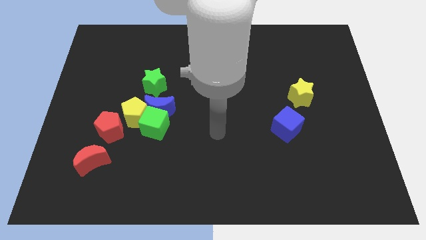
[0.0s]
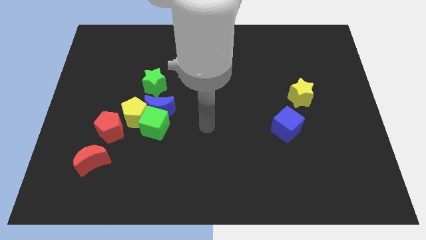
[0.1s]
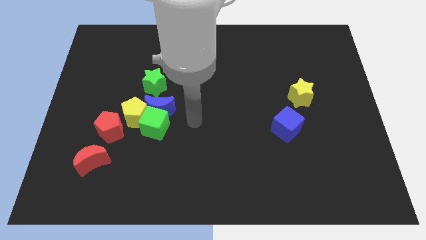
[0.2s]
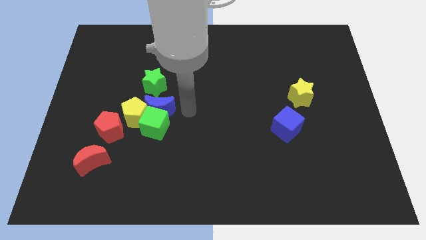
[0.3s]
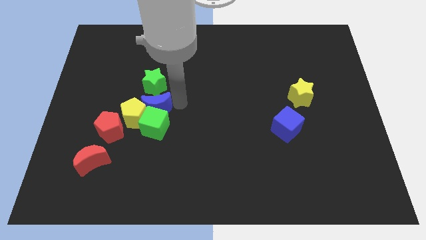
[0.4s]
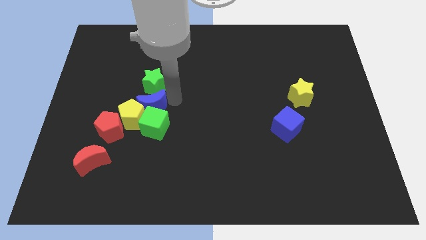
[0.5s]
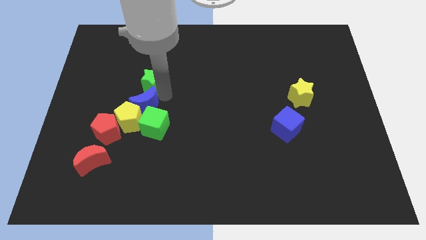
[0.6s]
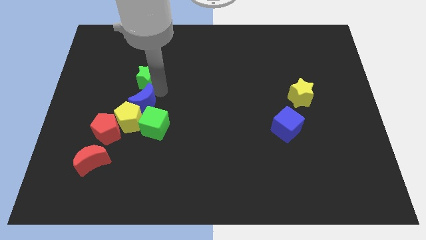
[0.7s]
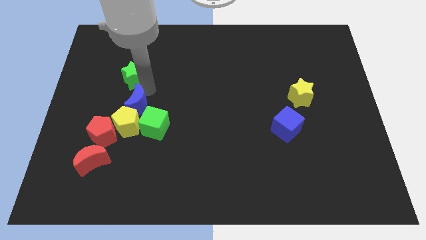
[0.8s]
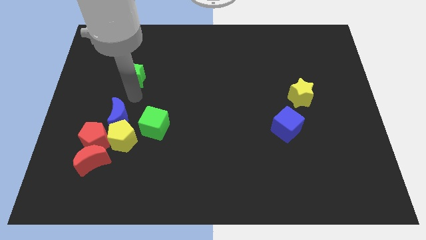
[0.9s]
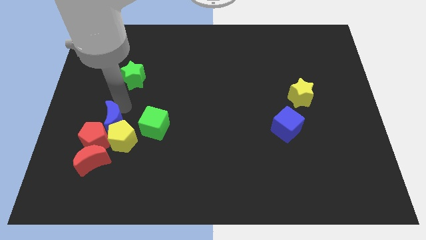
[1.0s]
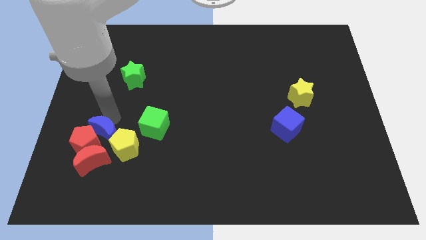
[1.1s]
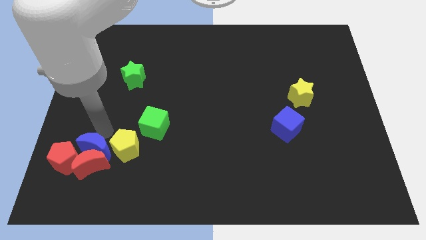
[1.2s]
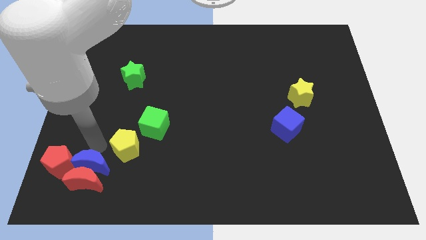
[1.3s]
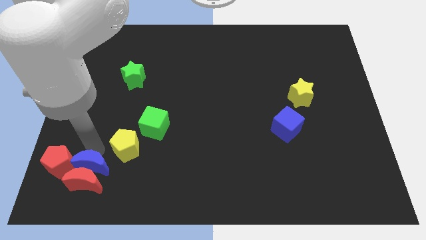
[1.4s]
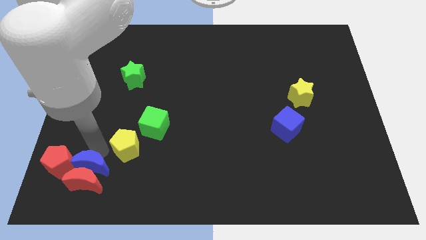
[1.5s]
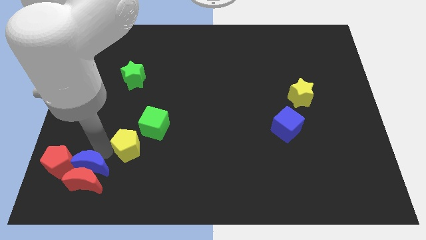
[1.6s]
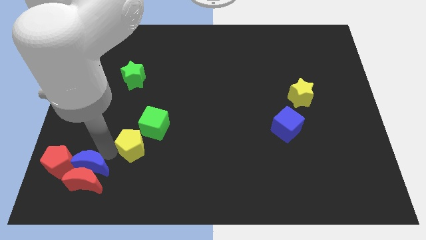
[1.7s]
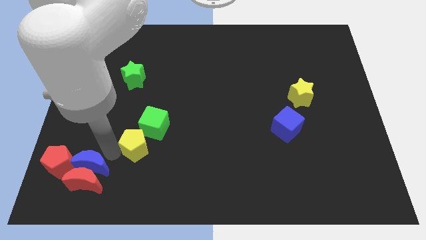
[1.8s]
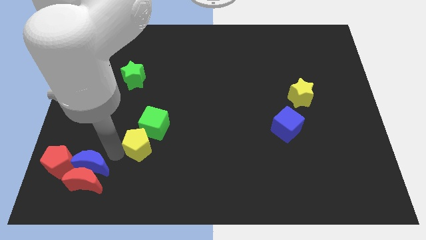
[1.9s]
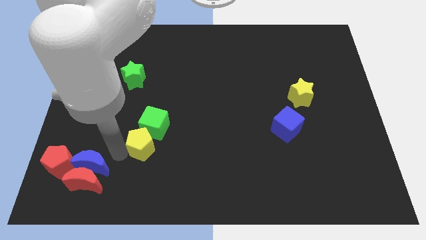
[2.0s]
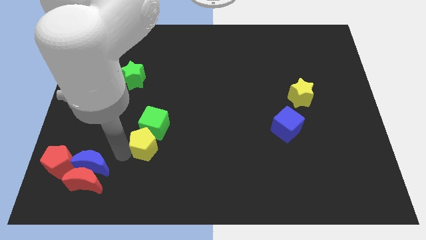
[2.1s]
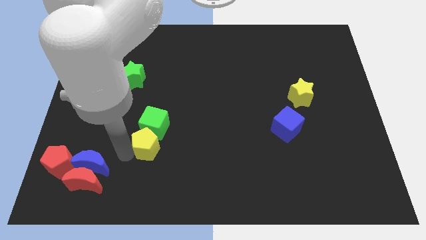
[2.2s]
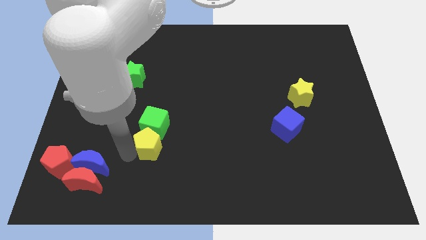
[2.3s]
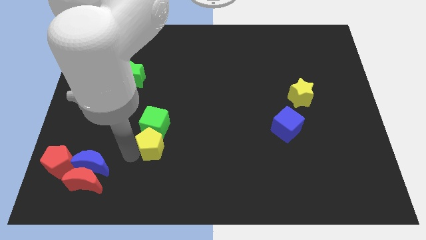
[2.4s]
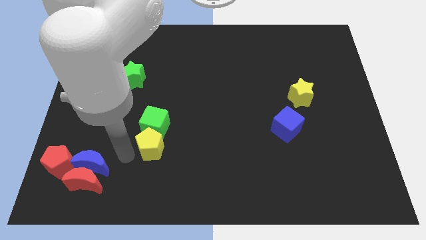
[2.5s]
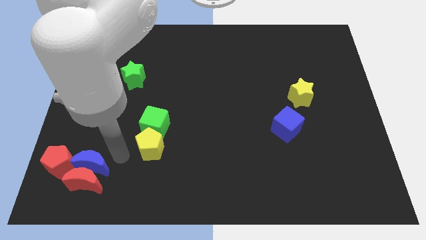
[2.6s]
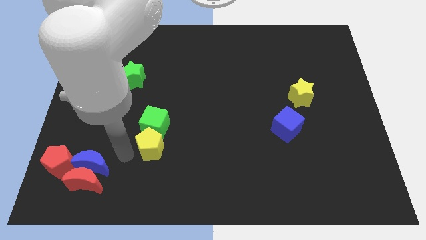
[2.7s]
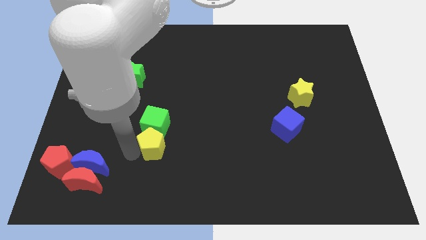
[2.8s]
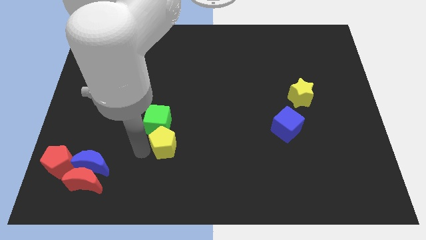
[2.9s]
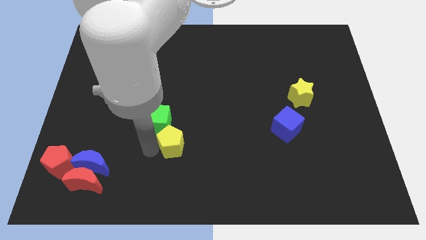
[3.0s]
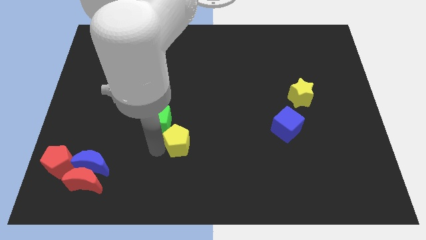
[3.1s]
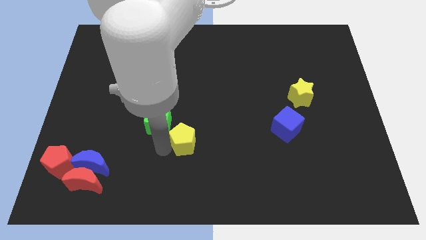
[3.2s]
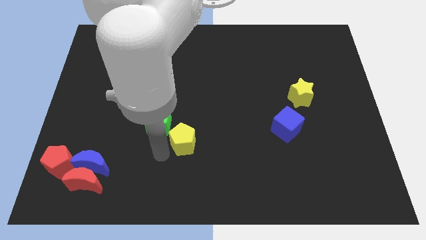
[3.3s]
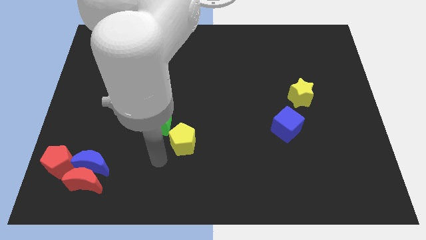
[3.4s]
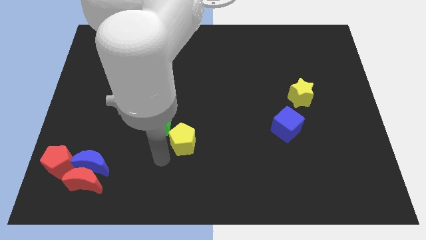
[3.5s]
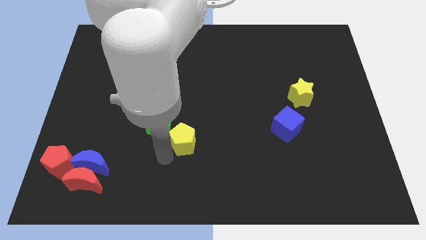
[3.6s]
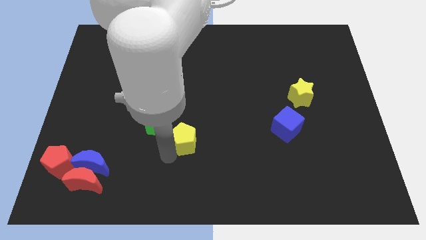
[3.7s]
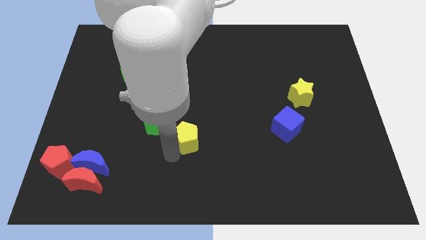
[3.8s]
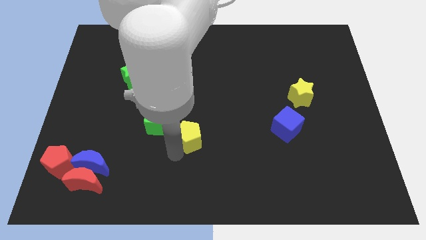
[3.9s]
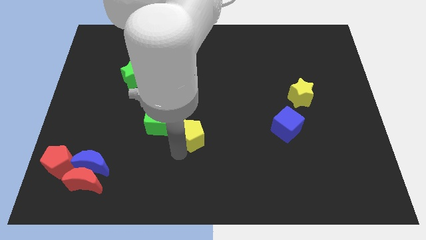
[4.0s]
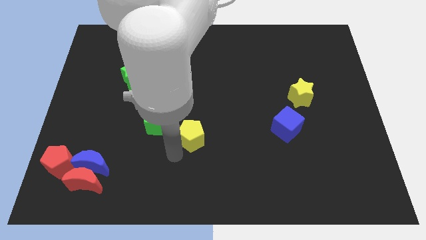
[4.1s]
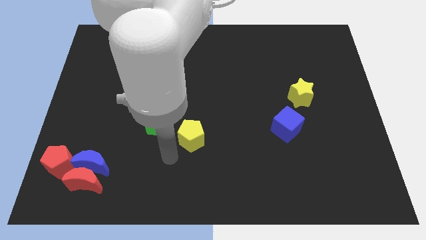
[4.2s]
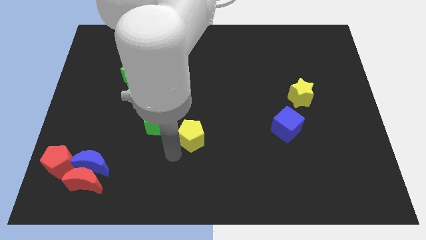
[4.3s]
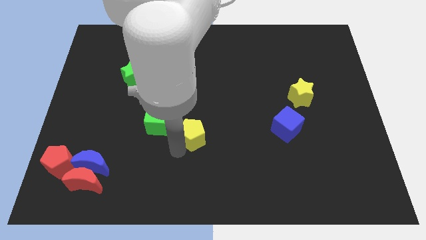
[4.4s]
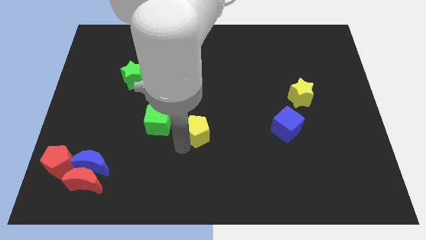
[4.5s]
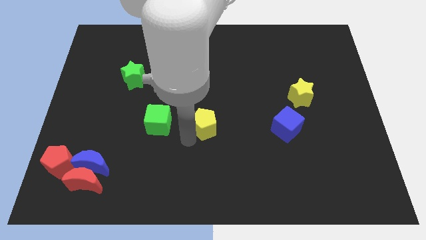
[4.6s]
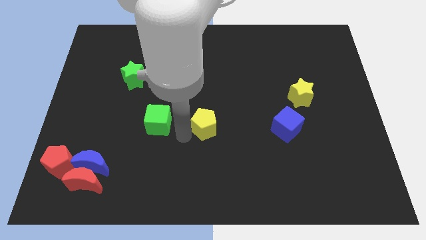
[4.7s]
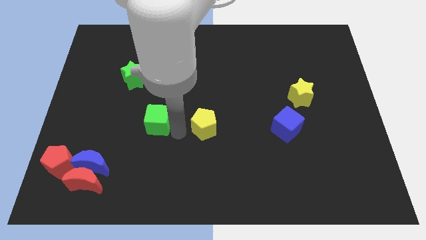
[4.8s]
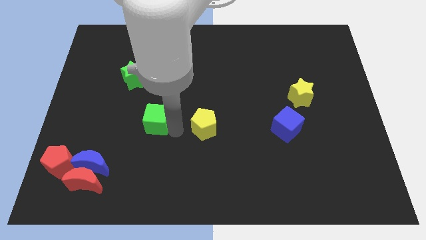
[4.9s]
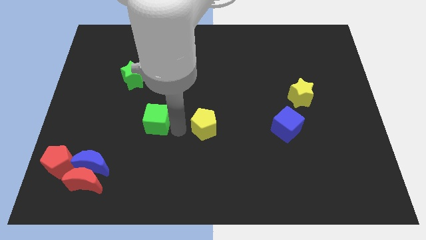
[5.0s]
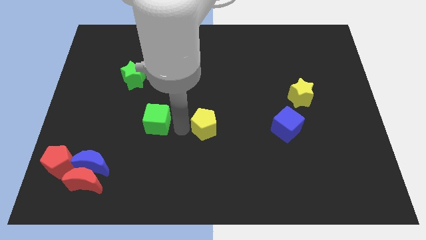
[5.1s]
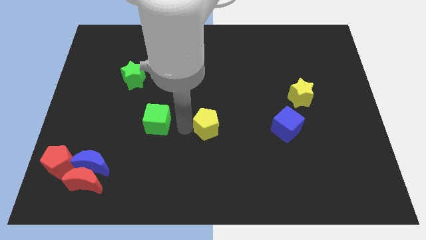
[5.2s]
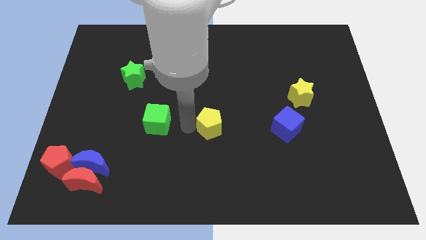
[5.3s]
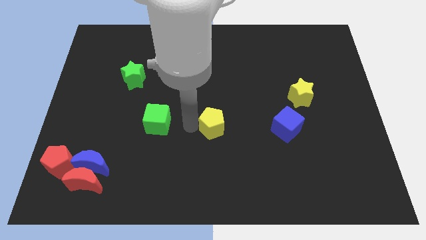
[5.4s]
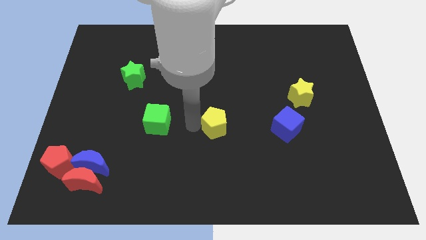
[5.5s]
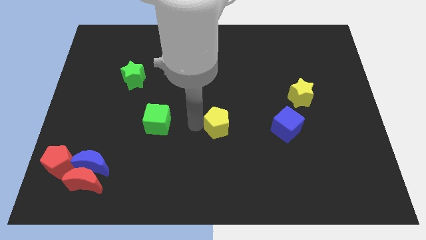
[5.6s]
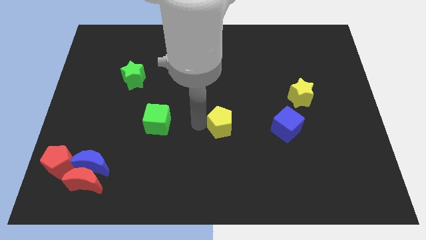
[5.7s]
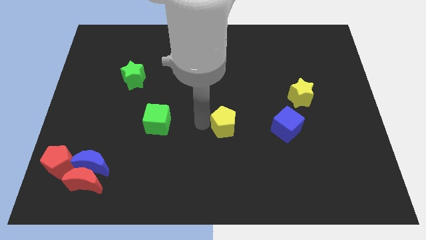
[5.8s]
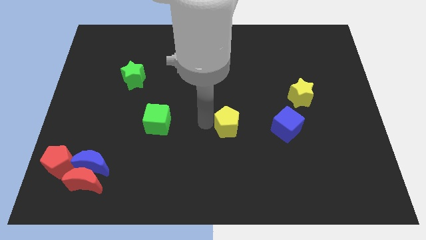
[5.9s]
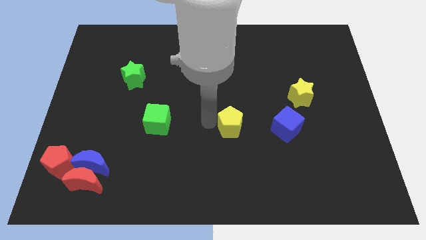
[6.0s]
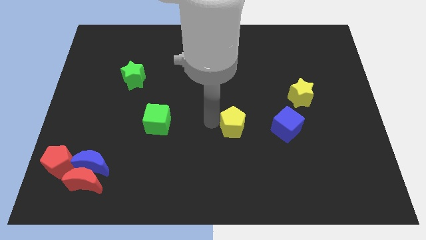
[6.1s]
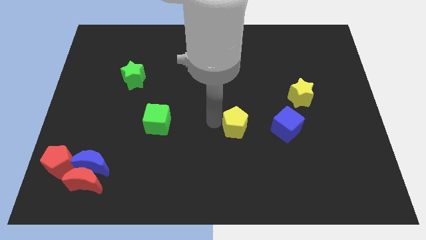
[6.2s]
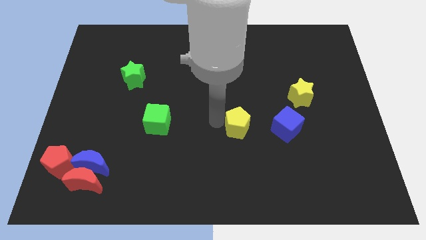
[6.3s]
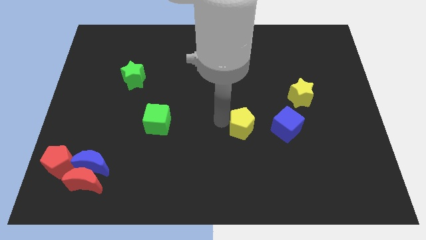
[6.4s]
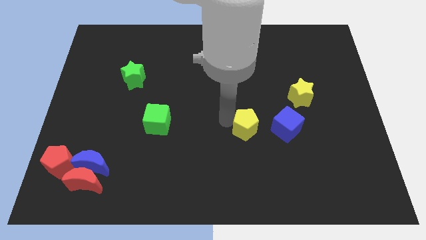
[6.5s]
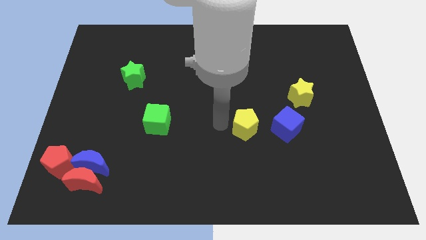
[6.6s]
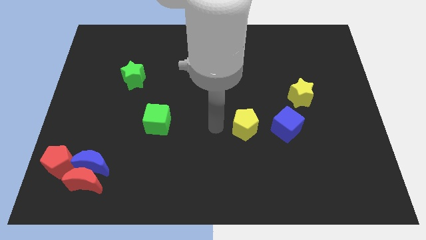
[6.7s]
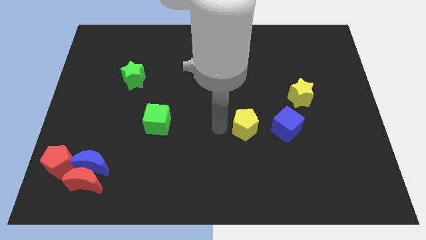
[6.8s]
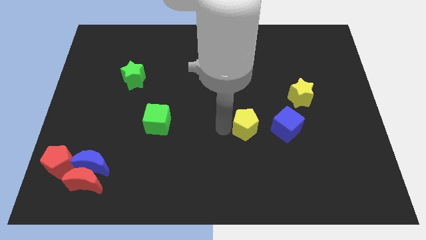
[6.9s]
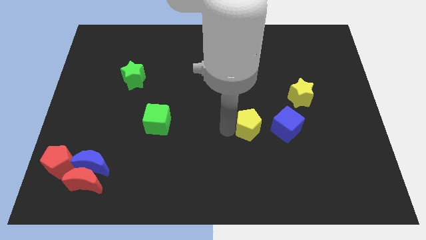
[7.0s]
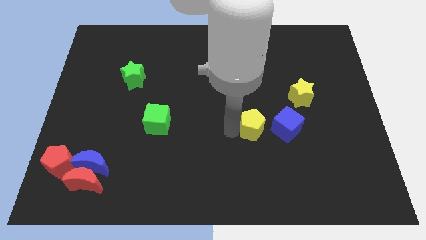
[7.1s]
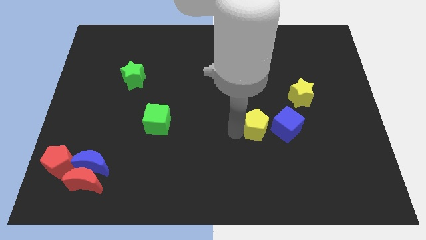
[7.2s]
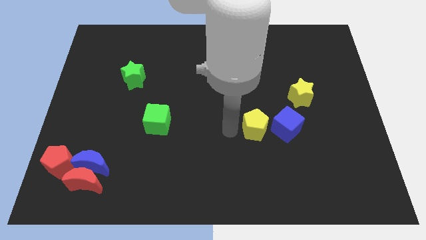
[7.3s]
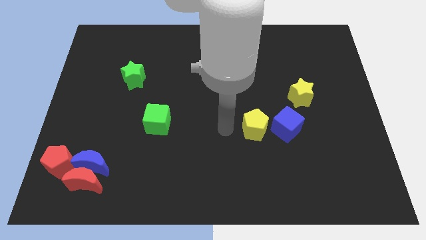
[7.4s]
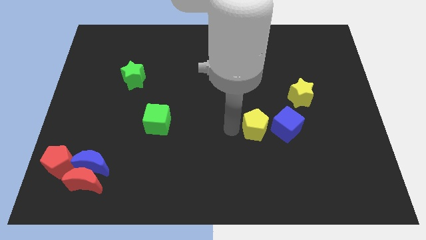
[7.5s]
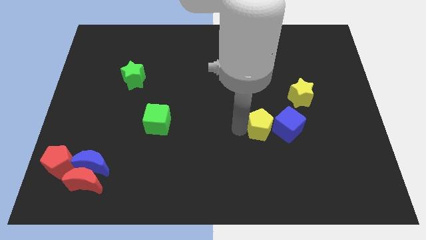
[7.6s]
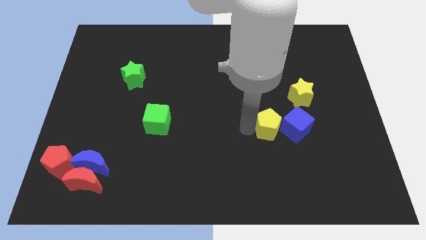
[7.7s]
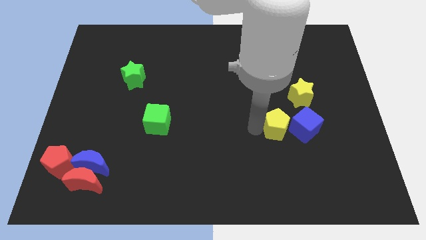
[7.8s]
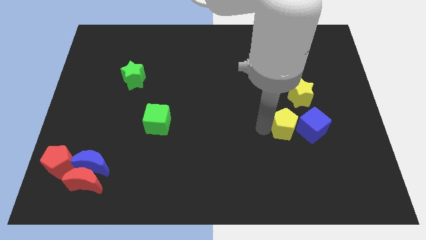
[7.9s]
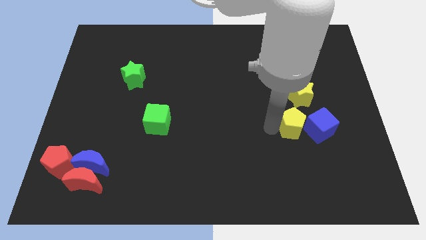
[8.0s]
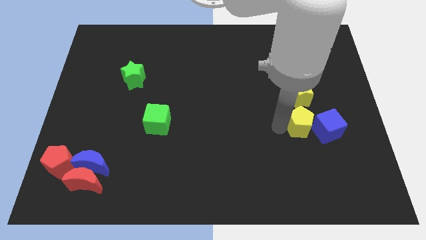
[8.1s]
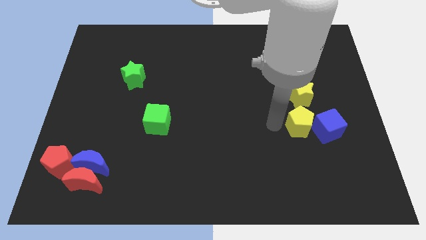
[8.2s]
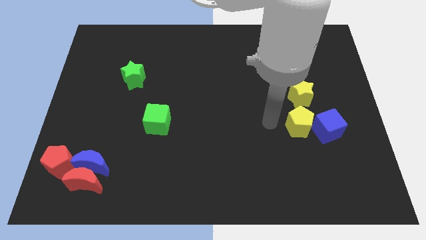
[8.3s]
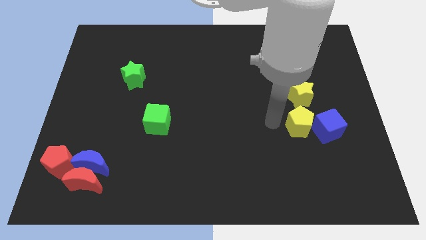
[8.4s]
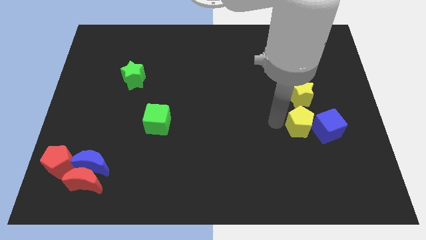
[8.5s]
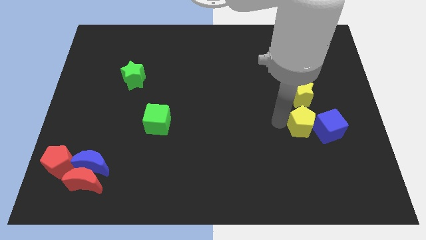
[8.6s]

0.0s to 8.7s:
put the yellow pentagon next to the blue cube
